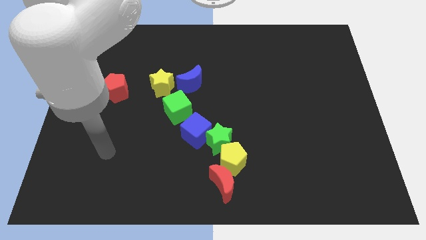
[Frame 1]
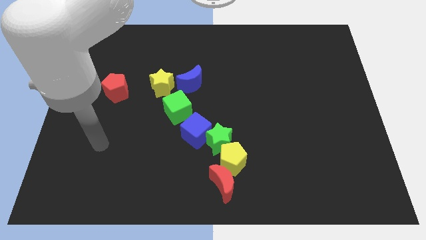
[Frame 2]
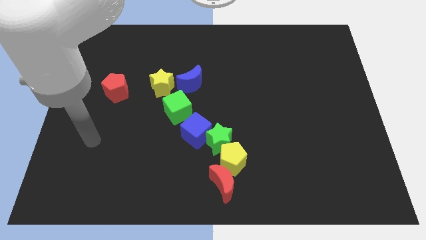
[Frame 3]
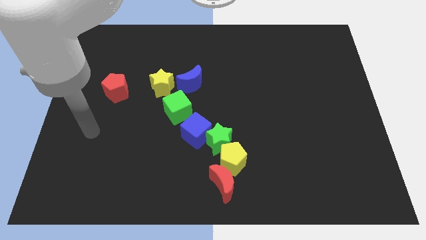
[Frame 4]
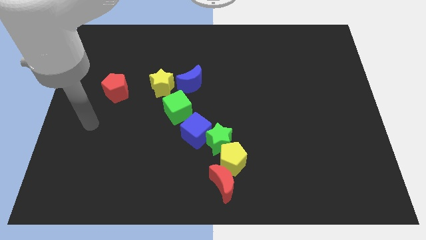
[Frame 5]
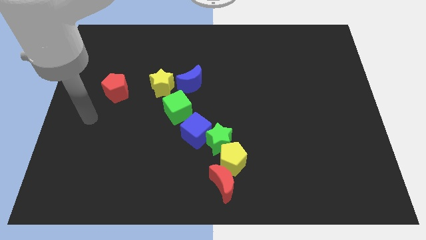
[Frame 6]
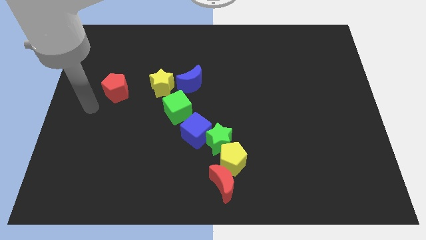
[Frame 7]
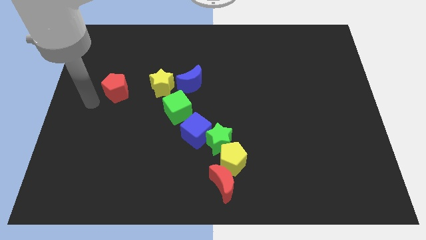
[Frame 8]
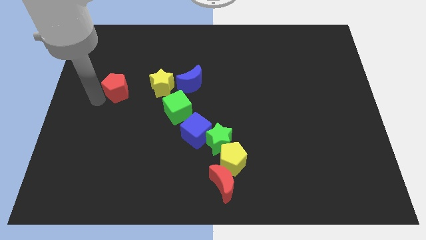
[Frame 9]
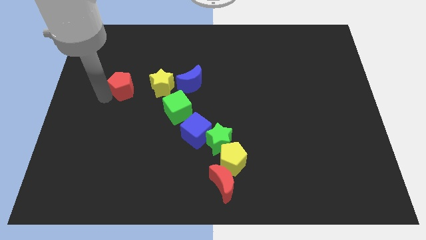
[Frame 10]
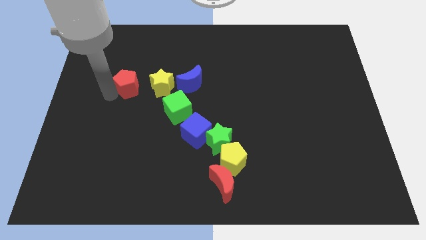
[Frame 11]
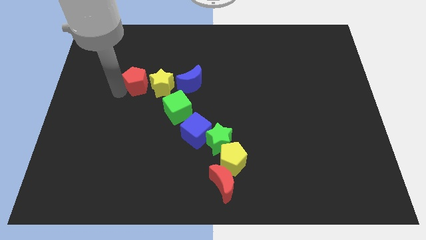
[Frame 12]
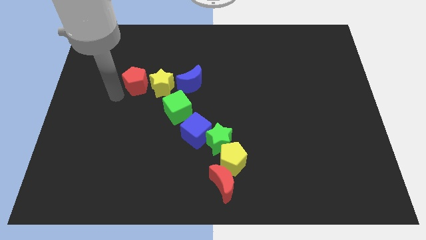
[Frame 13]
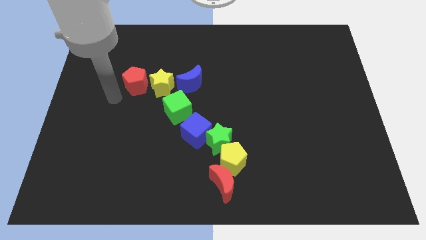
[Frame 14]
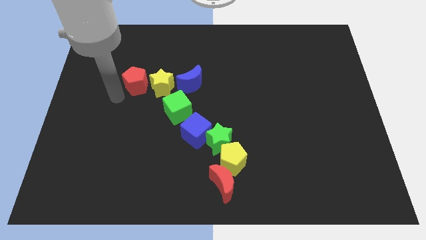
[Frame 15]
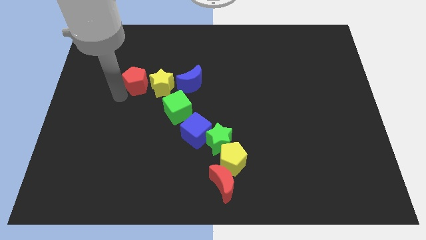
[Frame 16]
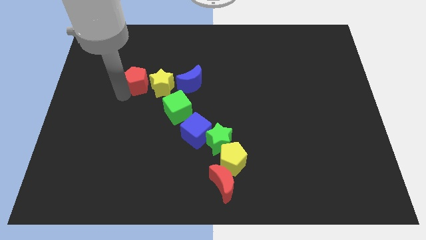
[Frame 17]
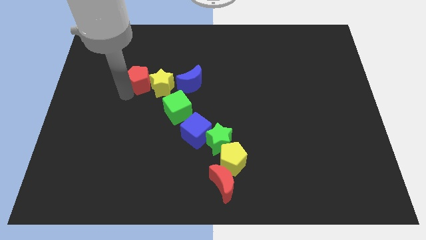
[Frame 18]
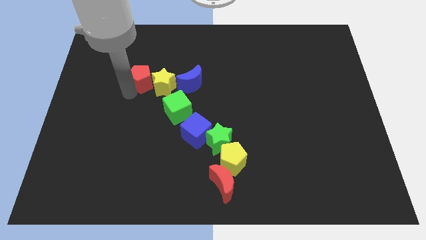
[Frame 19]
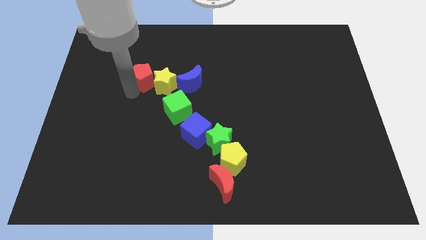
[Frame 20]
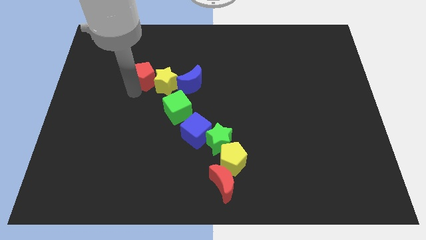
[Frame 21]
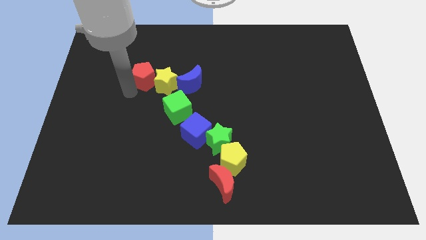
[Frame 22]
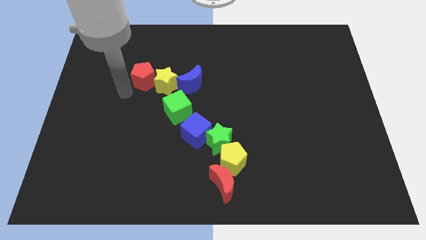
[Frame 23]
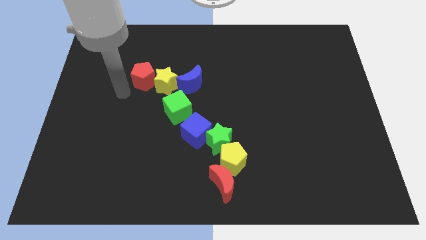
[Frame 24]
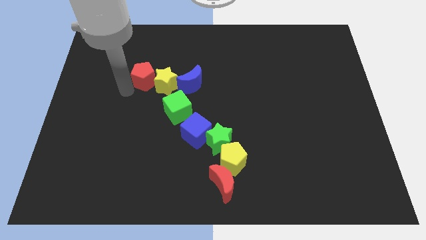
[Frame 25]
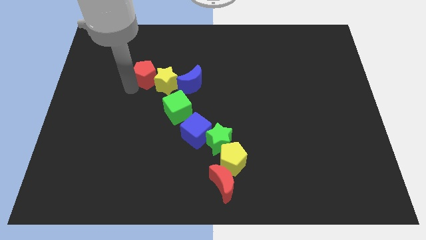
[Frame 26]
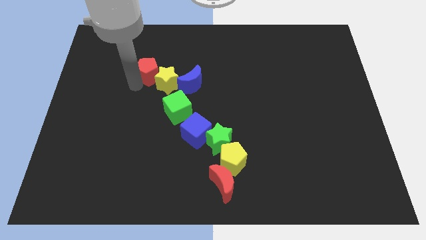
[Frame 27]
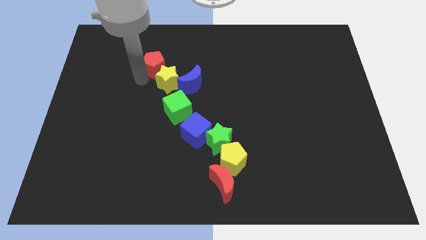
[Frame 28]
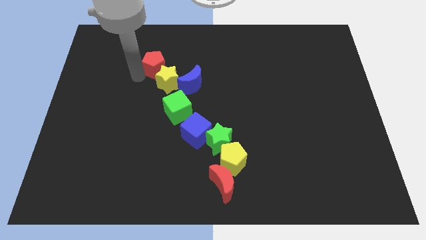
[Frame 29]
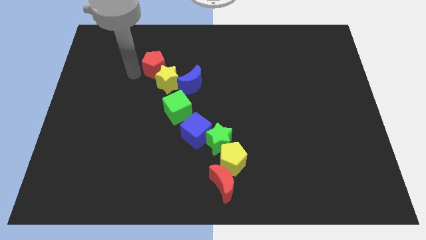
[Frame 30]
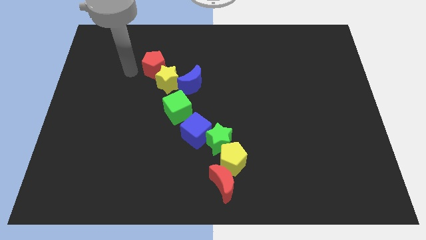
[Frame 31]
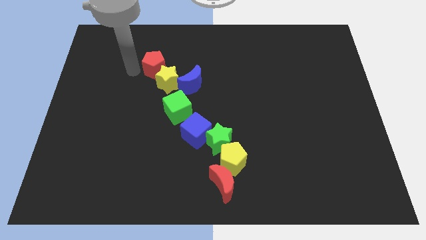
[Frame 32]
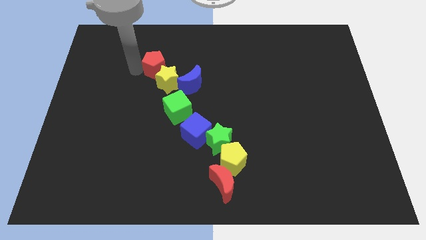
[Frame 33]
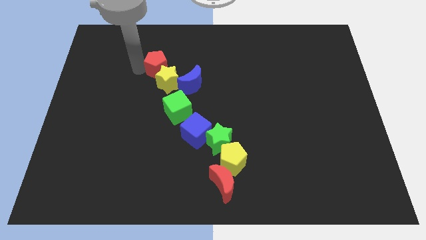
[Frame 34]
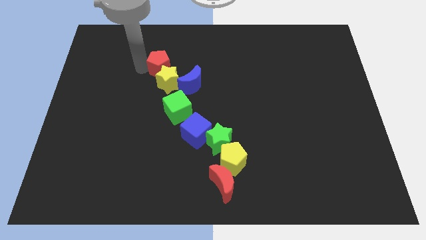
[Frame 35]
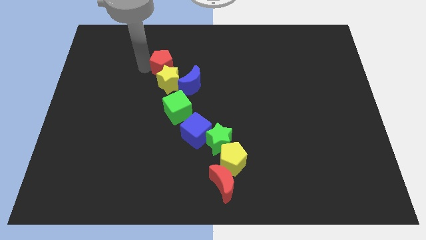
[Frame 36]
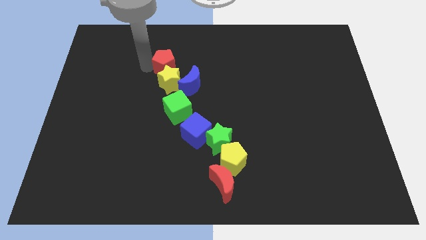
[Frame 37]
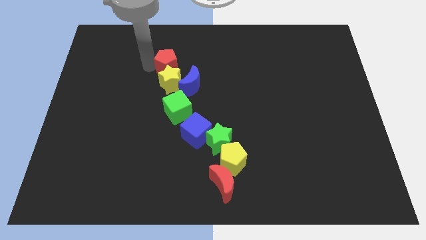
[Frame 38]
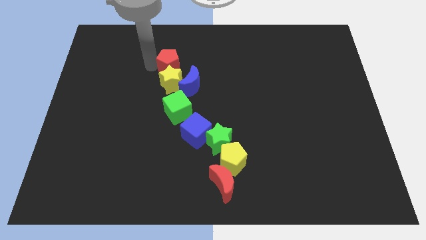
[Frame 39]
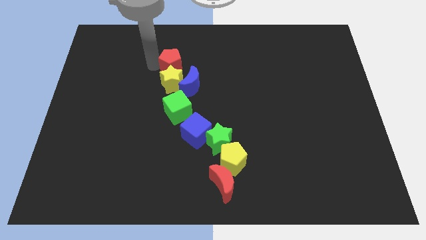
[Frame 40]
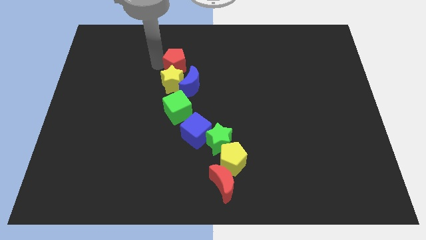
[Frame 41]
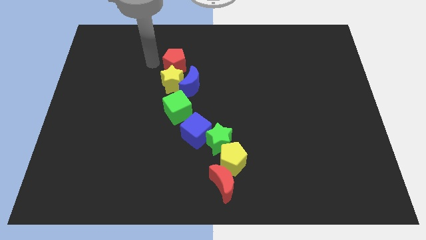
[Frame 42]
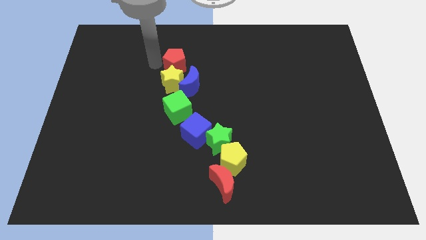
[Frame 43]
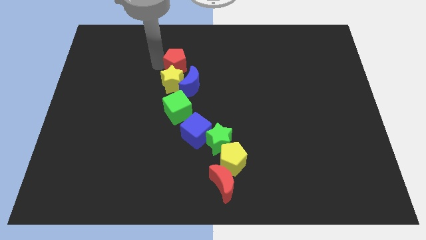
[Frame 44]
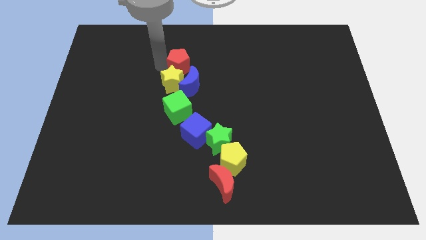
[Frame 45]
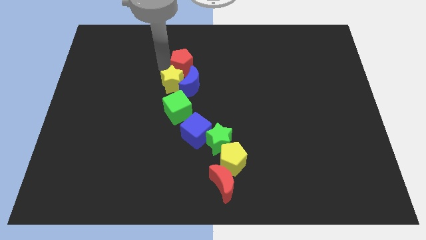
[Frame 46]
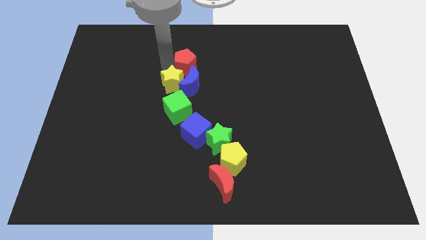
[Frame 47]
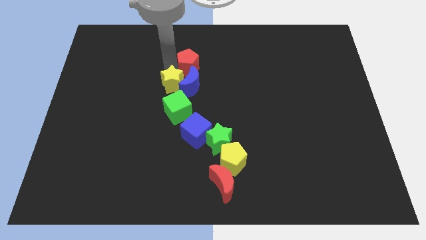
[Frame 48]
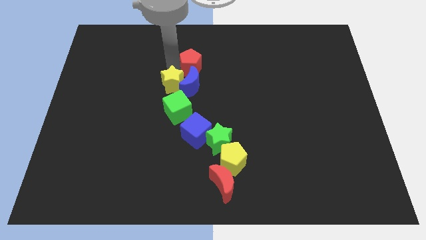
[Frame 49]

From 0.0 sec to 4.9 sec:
push the red pentagon to the top right side of the blue moon

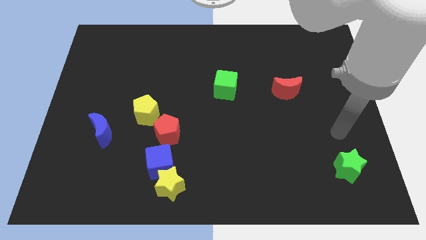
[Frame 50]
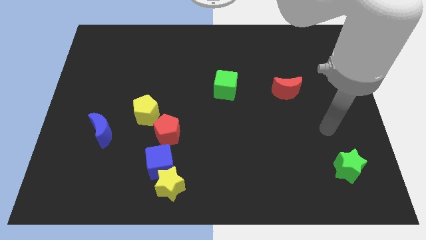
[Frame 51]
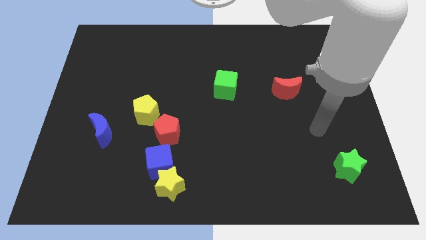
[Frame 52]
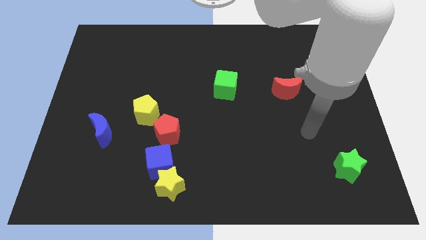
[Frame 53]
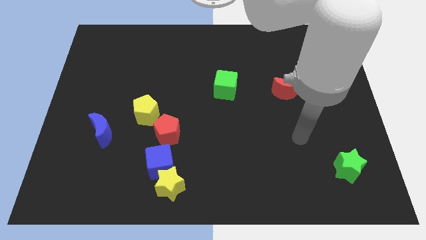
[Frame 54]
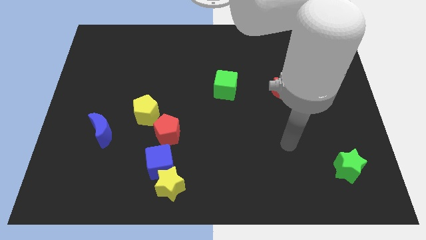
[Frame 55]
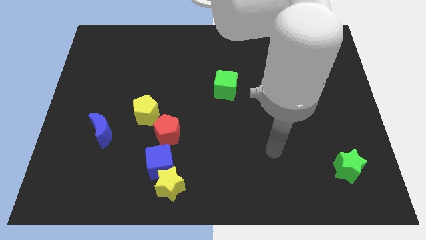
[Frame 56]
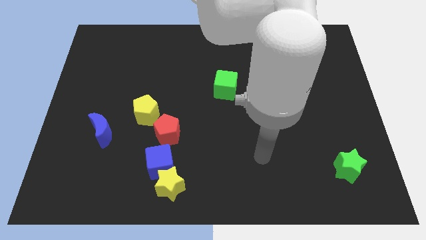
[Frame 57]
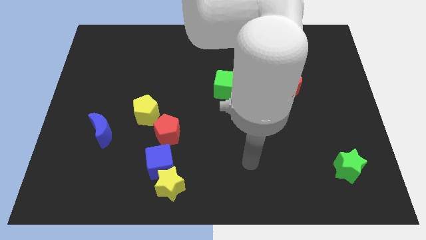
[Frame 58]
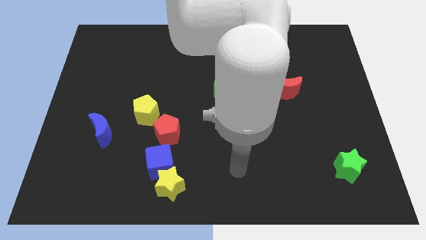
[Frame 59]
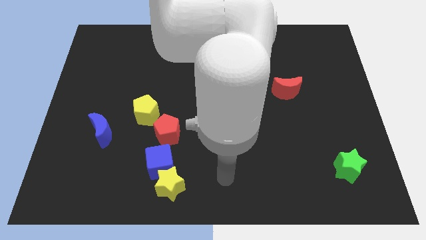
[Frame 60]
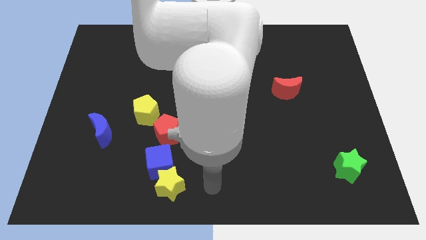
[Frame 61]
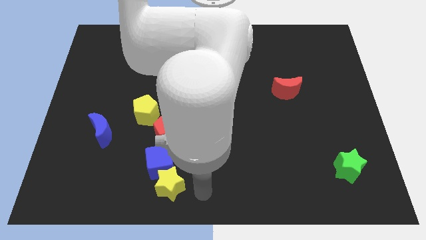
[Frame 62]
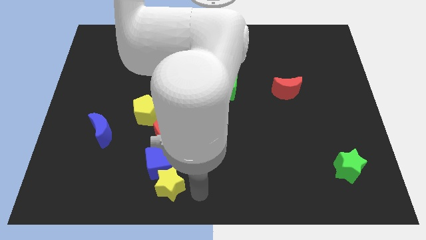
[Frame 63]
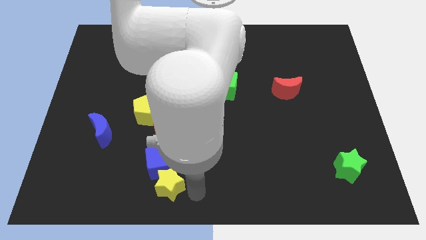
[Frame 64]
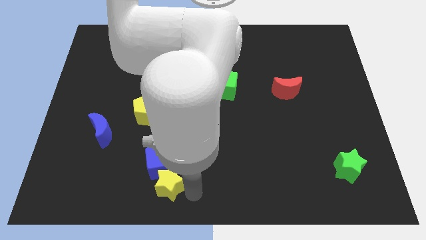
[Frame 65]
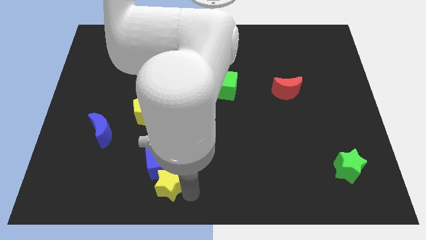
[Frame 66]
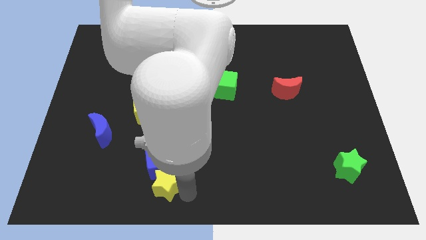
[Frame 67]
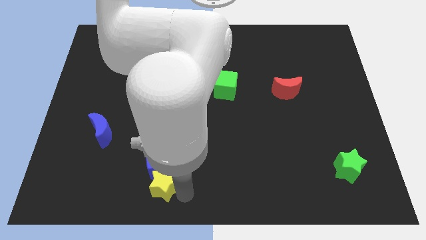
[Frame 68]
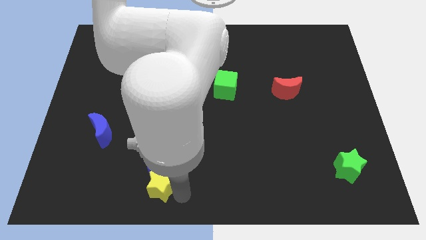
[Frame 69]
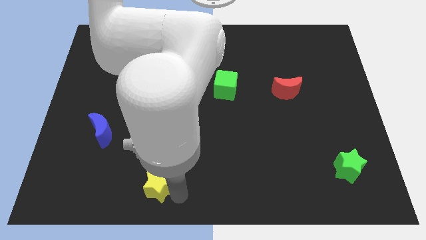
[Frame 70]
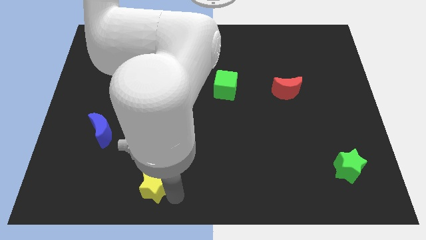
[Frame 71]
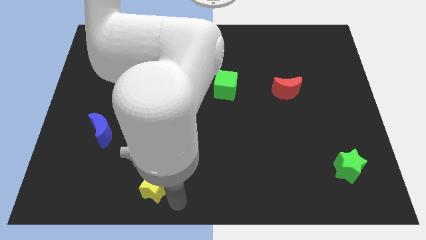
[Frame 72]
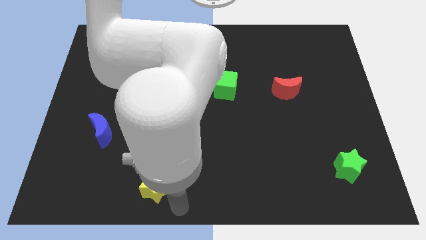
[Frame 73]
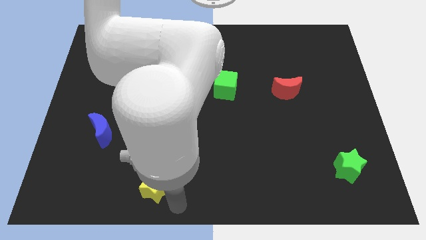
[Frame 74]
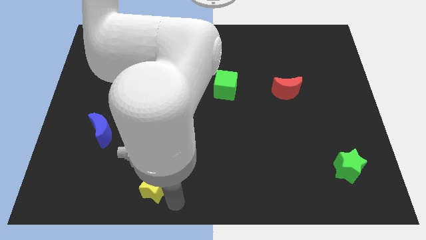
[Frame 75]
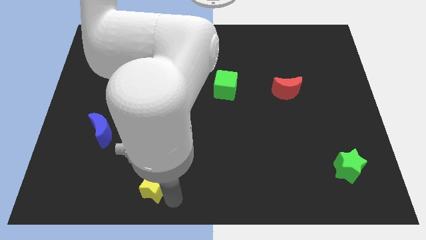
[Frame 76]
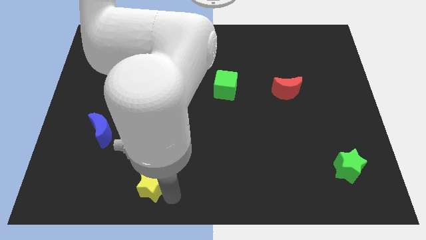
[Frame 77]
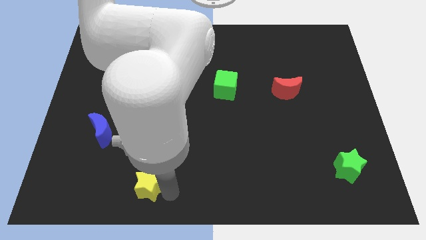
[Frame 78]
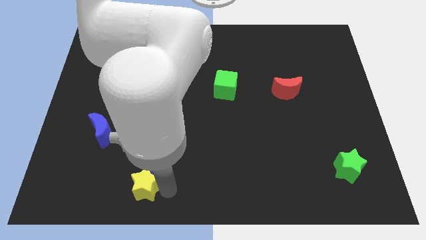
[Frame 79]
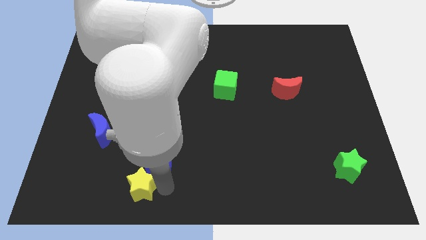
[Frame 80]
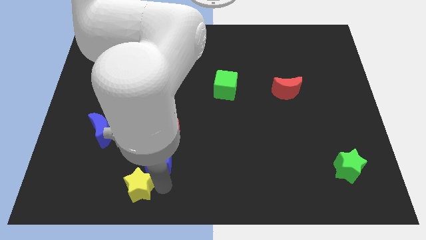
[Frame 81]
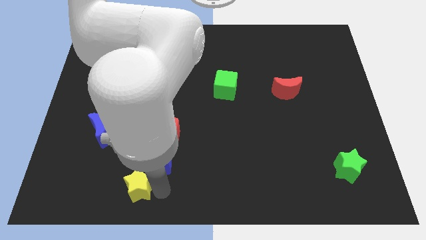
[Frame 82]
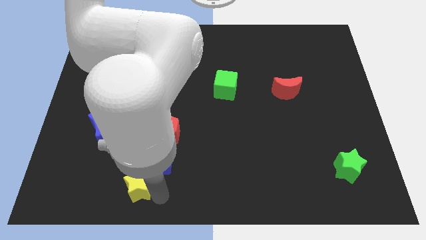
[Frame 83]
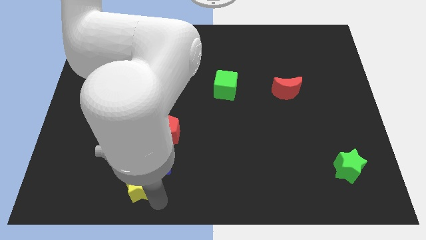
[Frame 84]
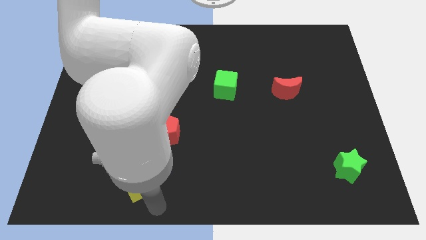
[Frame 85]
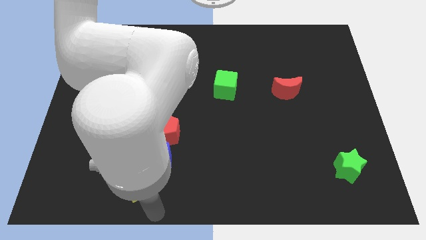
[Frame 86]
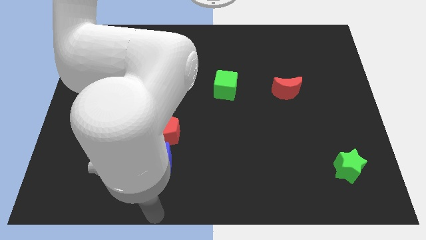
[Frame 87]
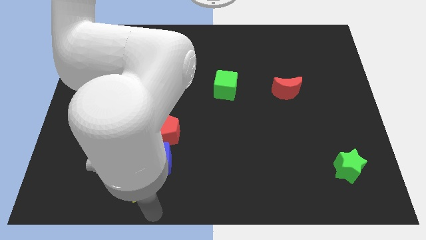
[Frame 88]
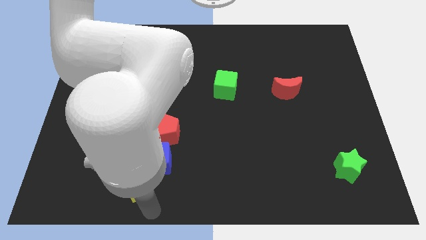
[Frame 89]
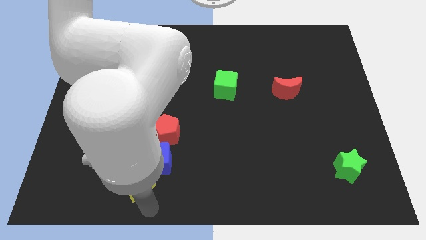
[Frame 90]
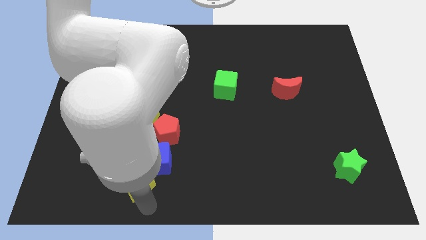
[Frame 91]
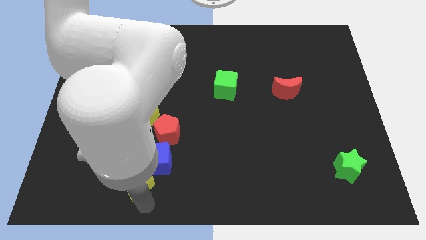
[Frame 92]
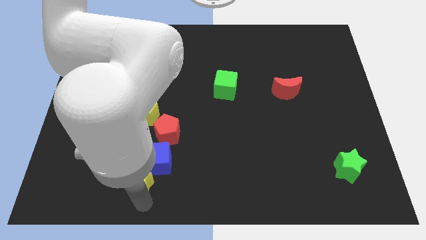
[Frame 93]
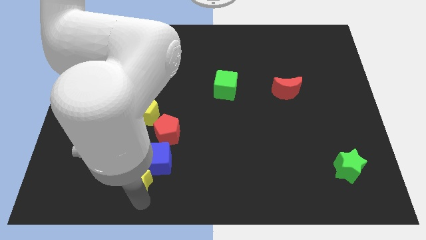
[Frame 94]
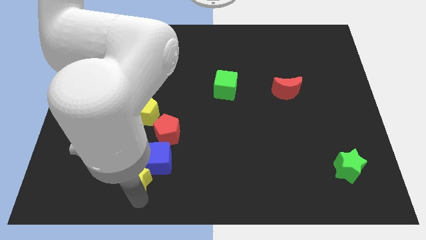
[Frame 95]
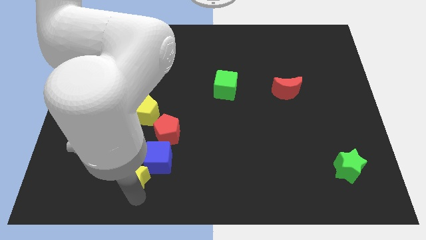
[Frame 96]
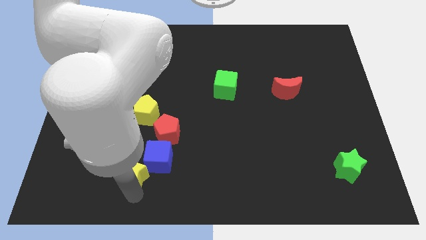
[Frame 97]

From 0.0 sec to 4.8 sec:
push the yellow star to the bottom left of the red pentagon
